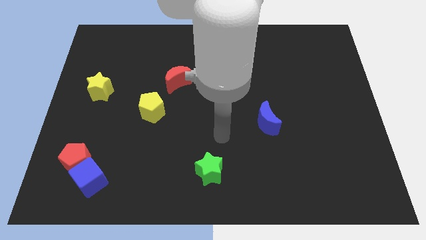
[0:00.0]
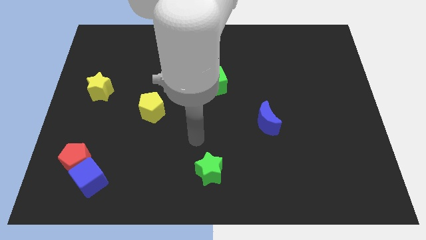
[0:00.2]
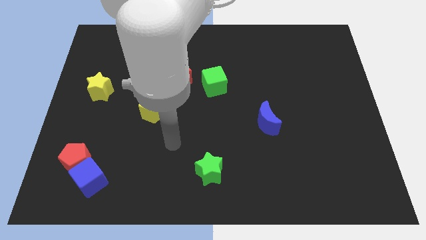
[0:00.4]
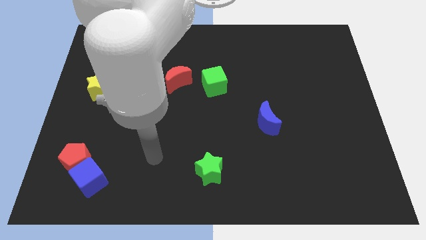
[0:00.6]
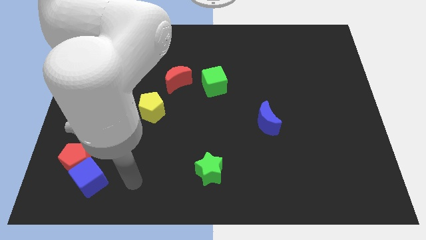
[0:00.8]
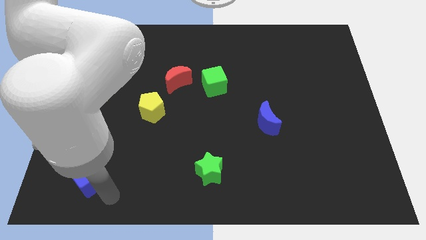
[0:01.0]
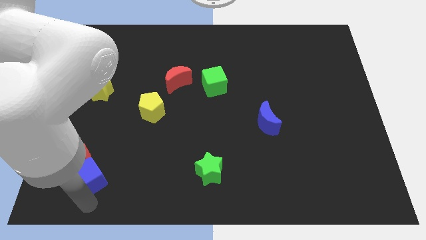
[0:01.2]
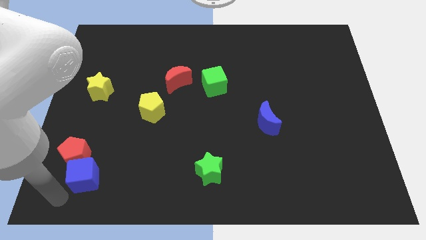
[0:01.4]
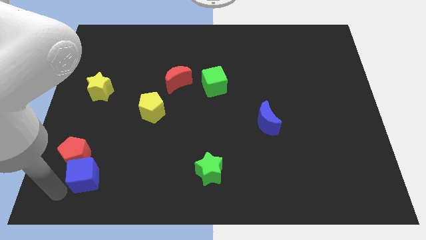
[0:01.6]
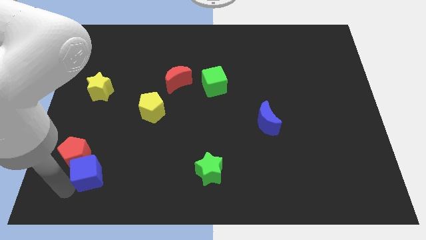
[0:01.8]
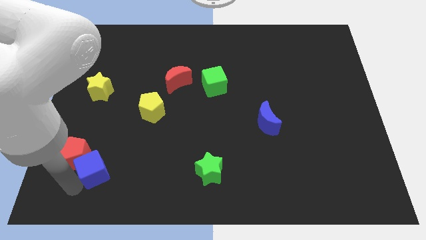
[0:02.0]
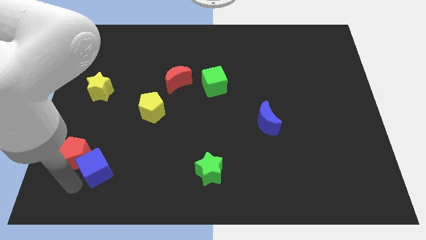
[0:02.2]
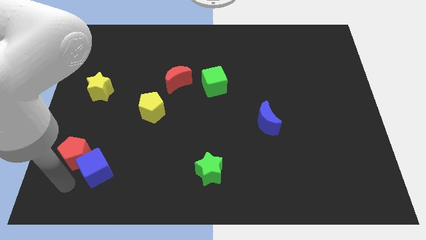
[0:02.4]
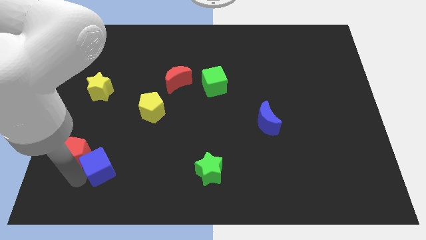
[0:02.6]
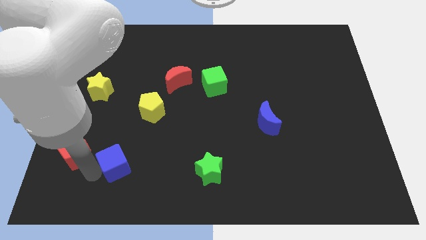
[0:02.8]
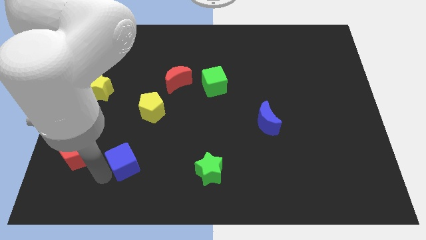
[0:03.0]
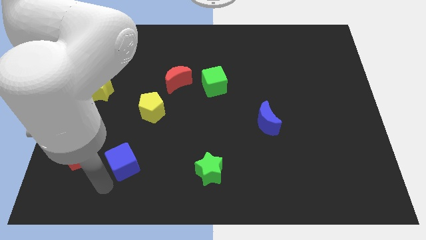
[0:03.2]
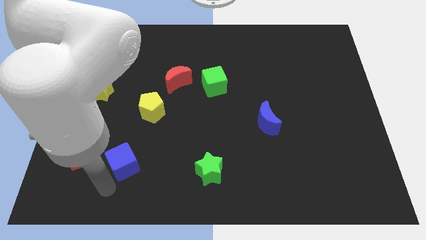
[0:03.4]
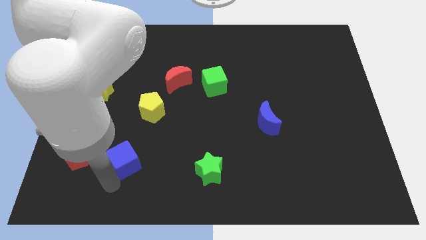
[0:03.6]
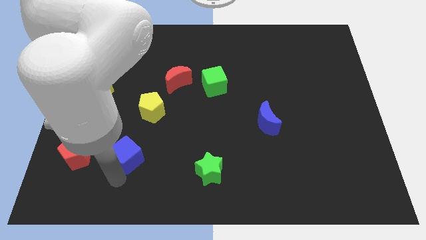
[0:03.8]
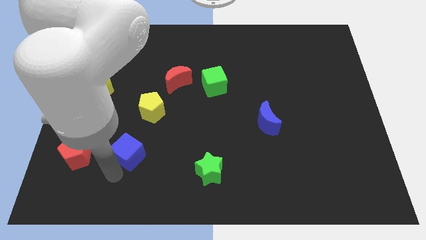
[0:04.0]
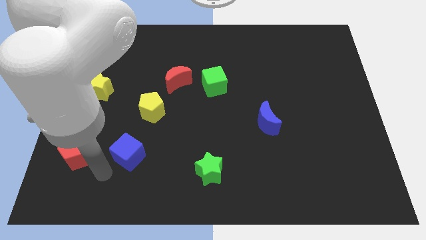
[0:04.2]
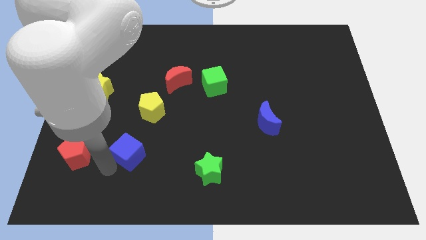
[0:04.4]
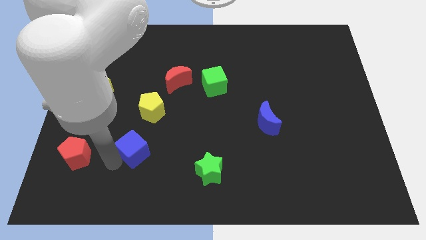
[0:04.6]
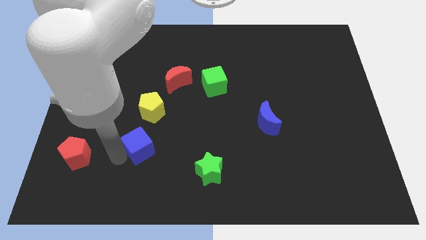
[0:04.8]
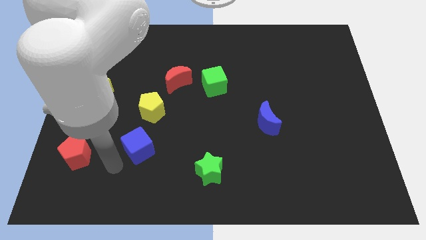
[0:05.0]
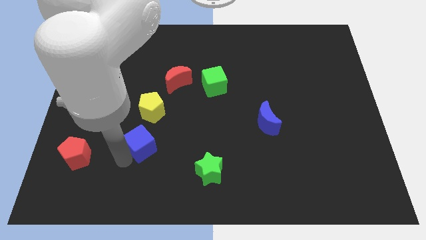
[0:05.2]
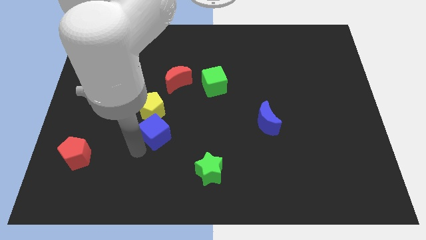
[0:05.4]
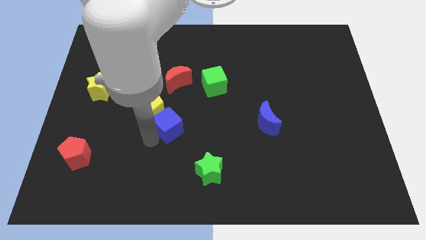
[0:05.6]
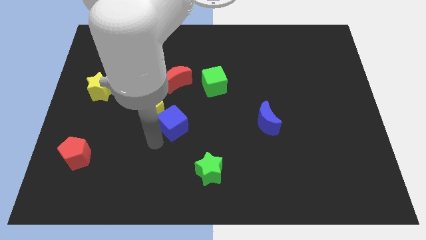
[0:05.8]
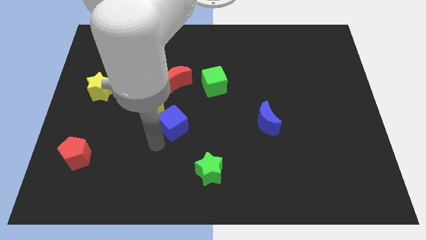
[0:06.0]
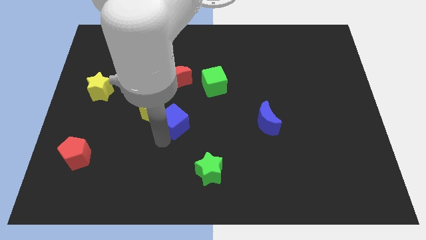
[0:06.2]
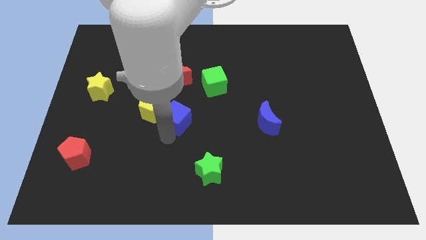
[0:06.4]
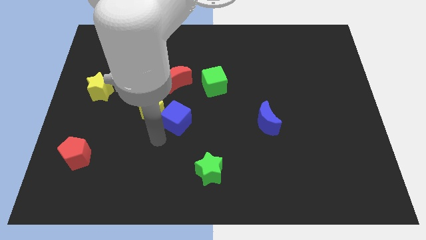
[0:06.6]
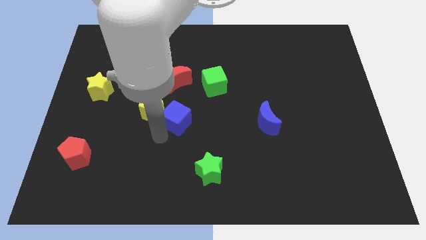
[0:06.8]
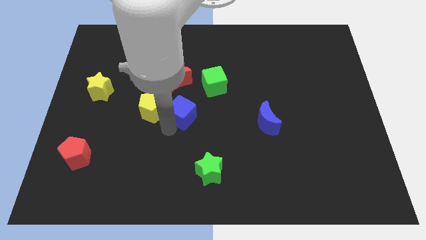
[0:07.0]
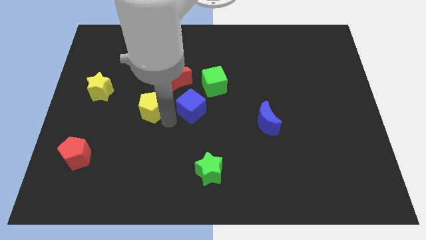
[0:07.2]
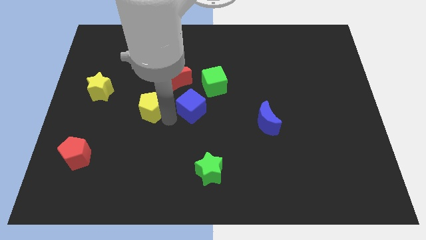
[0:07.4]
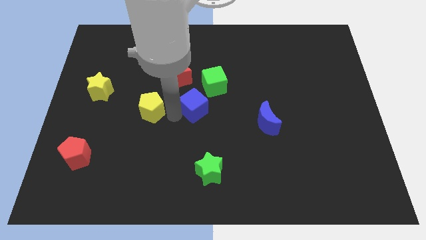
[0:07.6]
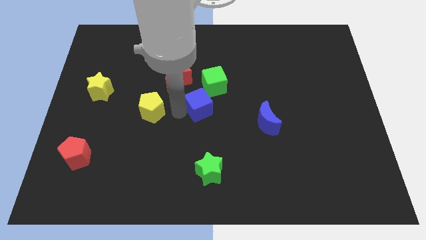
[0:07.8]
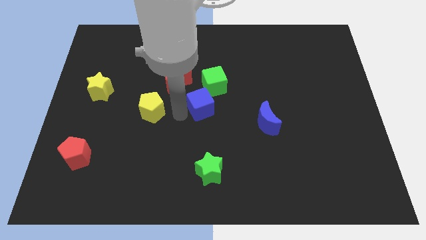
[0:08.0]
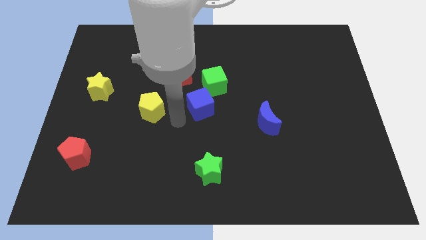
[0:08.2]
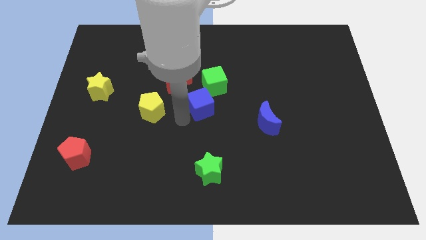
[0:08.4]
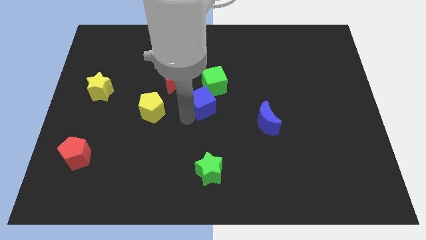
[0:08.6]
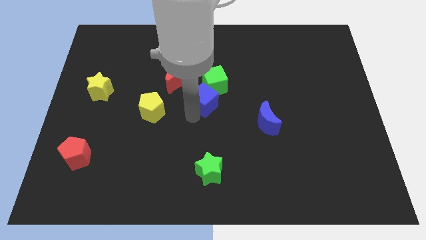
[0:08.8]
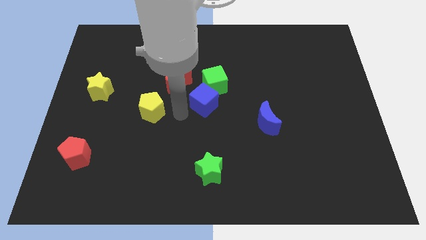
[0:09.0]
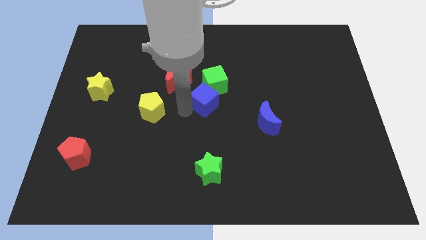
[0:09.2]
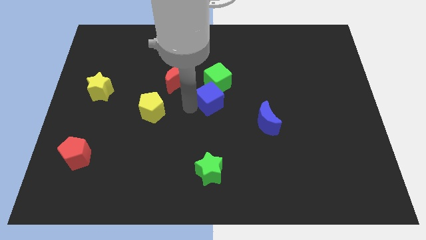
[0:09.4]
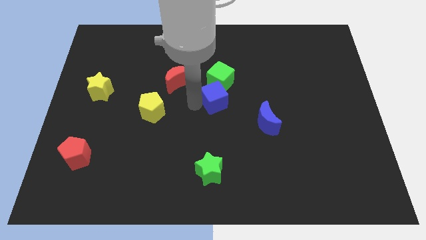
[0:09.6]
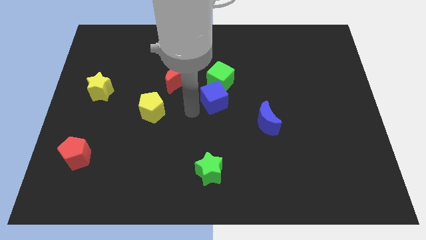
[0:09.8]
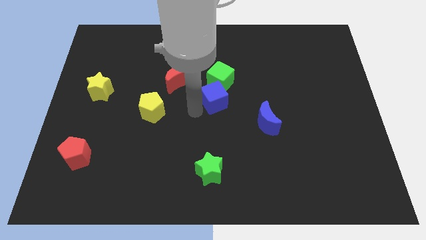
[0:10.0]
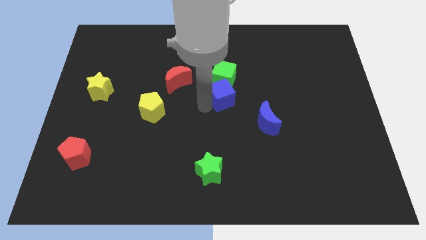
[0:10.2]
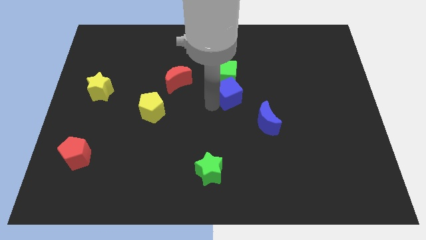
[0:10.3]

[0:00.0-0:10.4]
slide the blue cube to the right side of the red moon

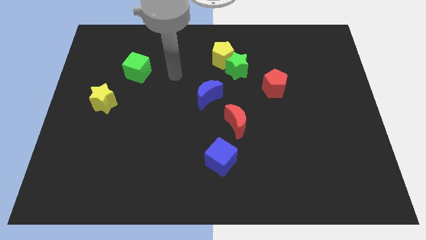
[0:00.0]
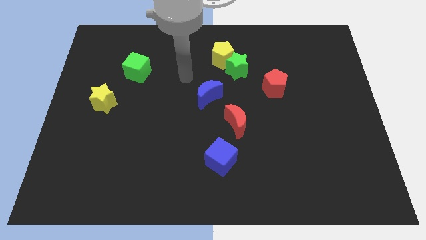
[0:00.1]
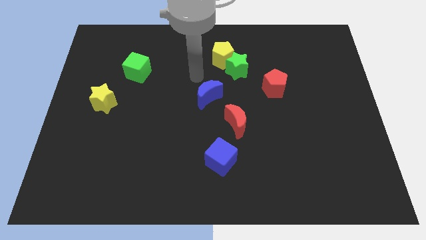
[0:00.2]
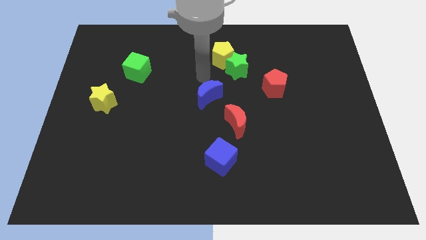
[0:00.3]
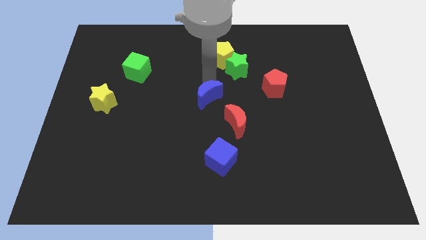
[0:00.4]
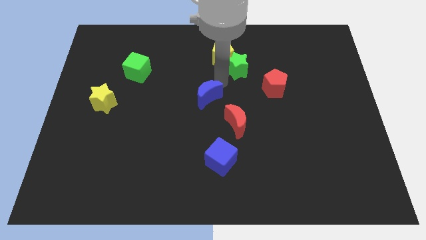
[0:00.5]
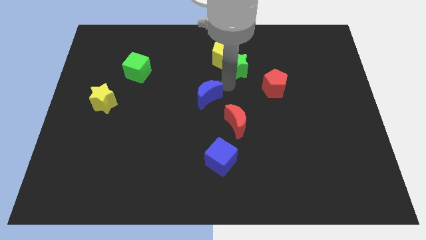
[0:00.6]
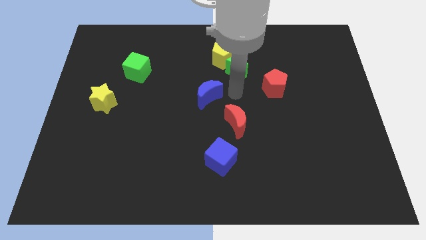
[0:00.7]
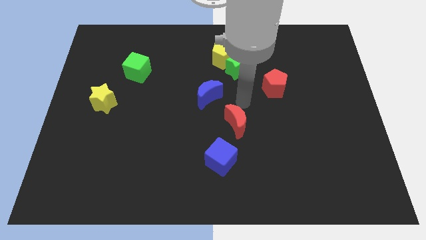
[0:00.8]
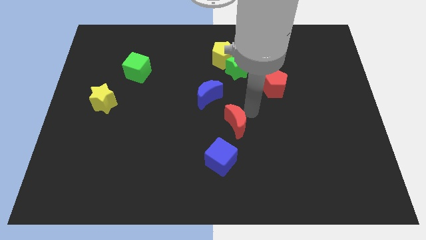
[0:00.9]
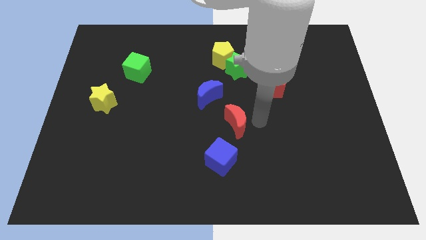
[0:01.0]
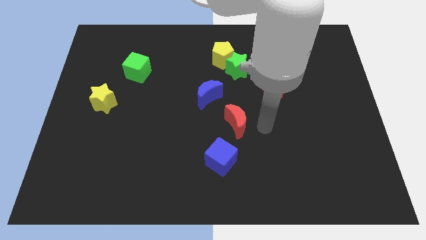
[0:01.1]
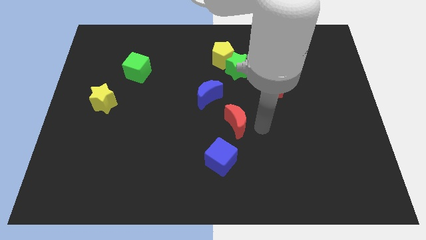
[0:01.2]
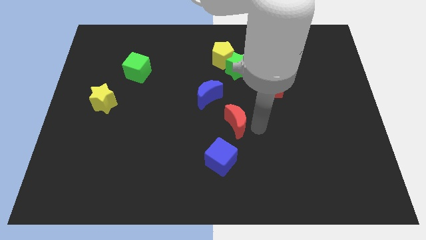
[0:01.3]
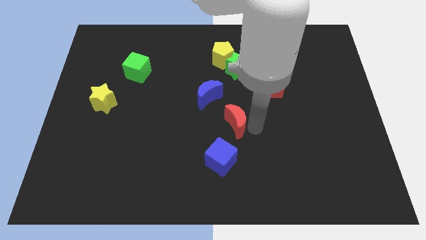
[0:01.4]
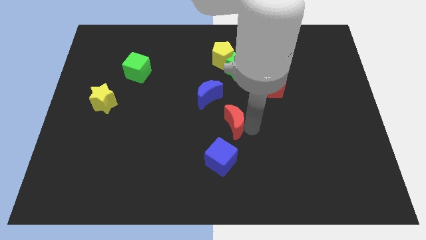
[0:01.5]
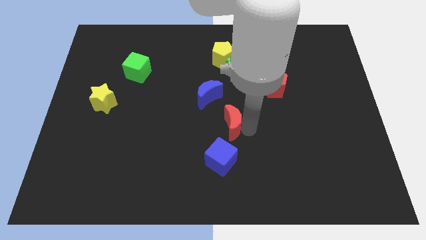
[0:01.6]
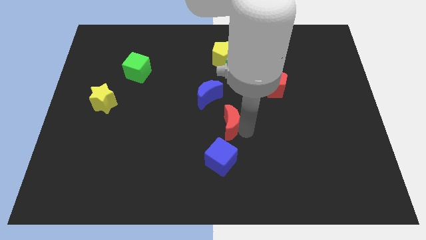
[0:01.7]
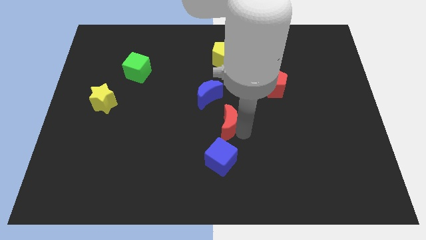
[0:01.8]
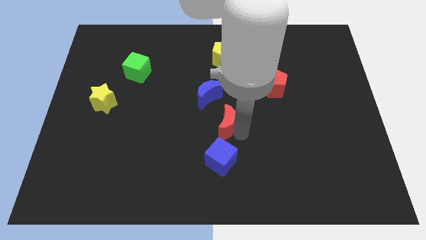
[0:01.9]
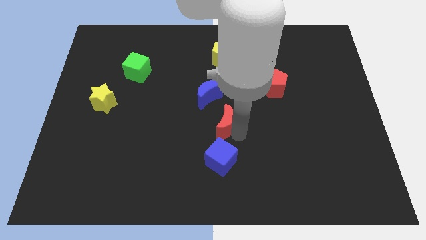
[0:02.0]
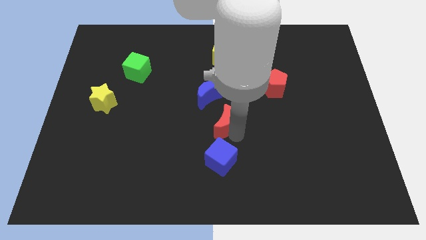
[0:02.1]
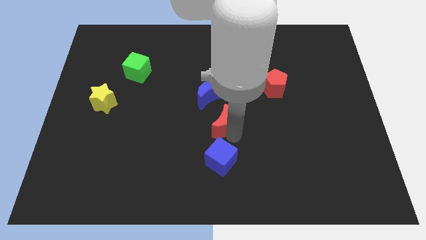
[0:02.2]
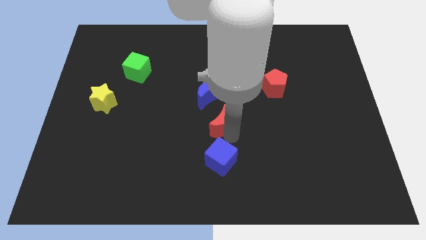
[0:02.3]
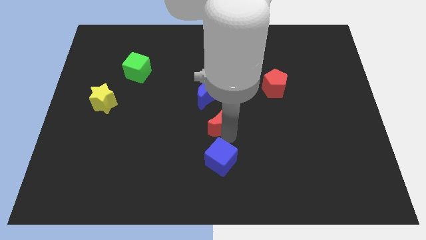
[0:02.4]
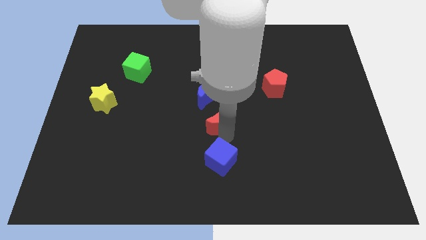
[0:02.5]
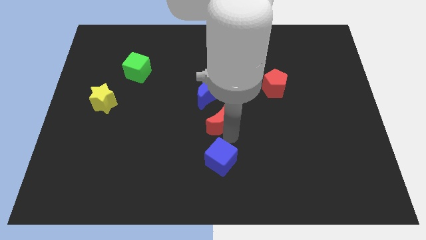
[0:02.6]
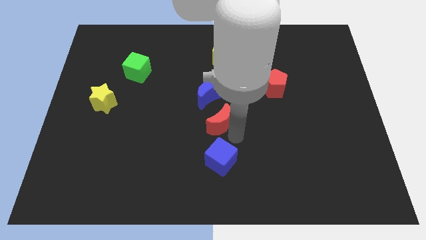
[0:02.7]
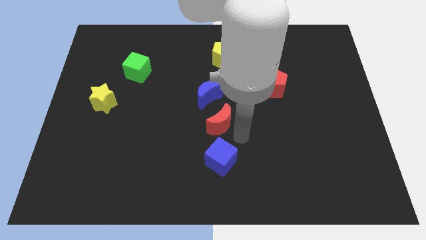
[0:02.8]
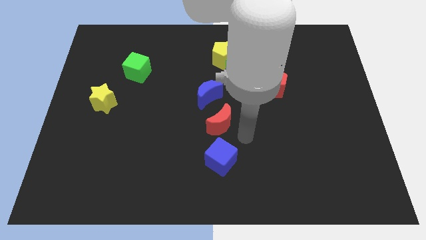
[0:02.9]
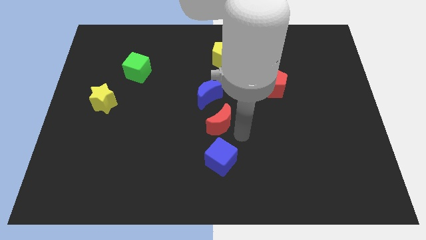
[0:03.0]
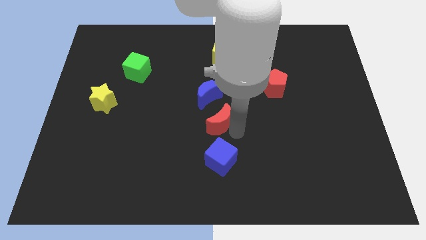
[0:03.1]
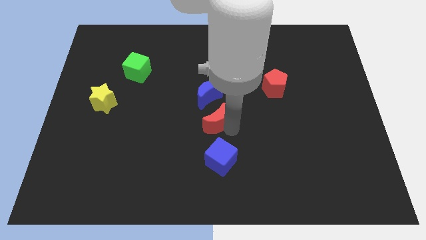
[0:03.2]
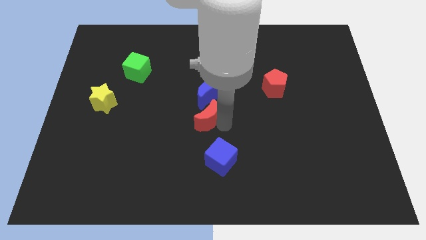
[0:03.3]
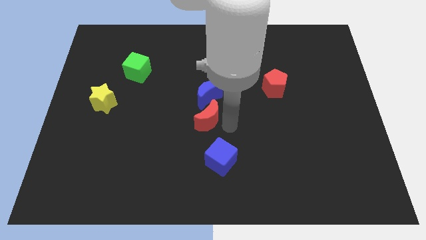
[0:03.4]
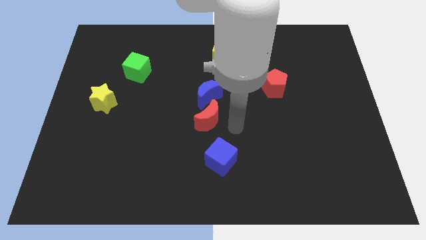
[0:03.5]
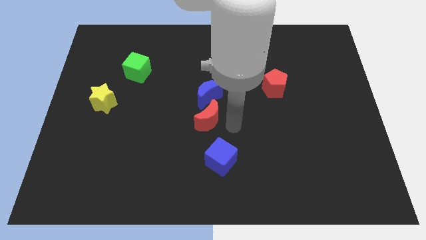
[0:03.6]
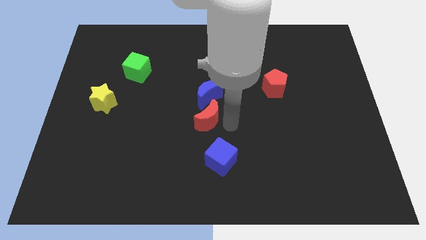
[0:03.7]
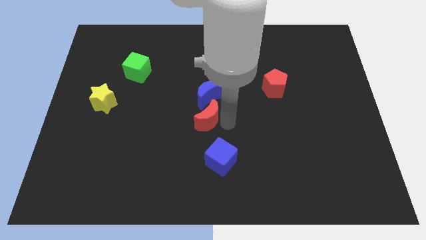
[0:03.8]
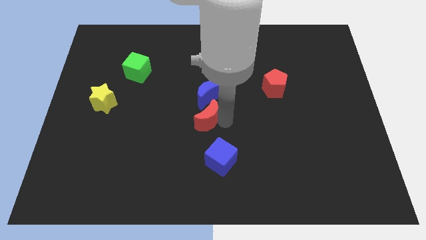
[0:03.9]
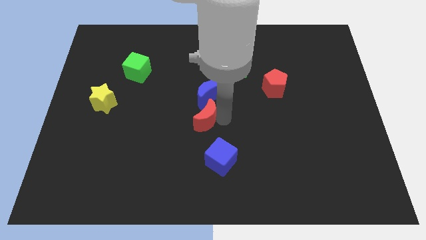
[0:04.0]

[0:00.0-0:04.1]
move the red moon to the bottom left side of the blue moon
